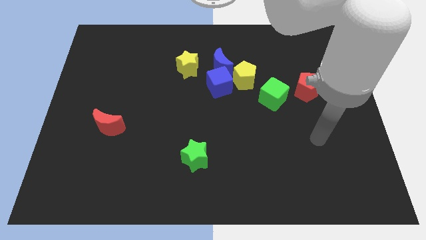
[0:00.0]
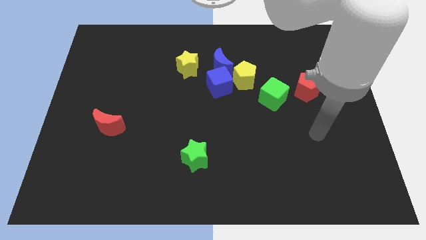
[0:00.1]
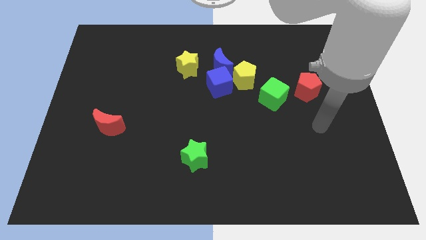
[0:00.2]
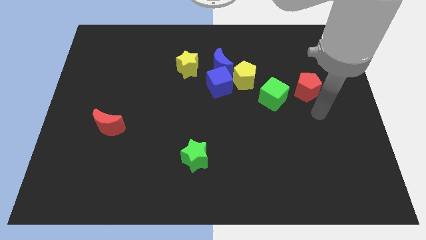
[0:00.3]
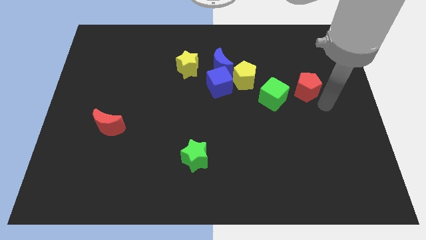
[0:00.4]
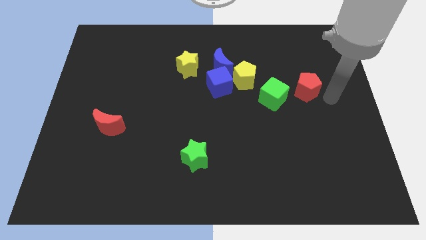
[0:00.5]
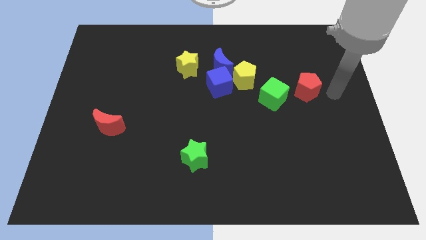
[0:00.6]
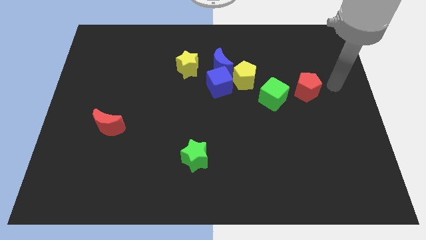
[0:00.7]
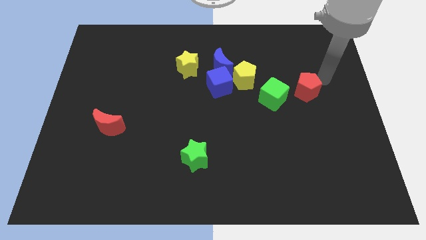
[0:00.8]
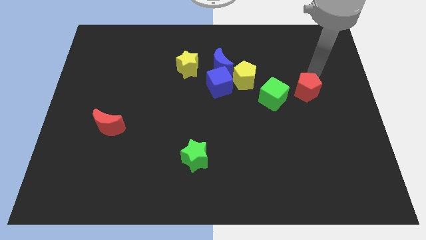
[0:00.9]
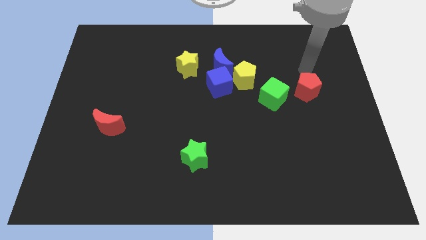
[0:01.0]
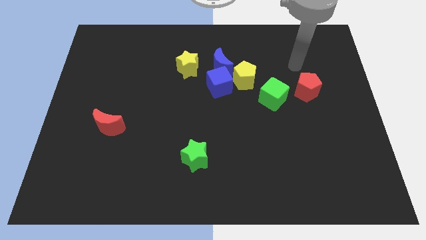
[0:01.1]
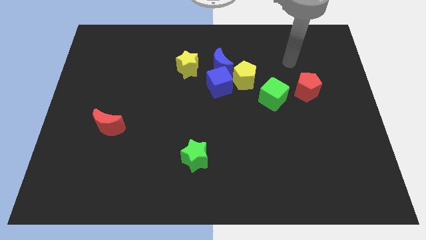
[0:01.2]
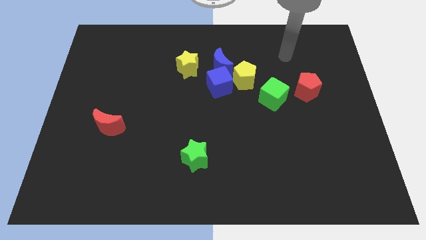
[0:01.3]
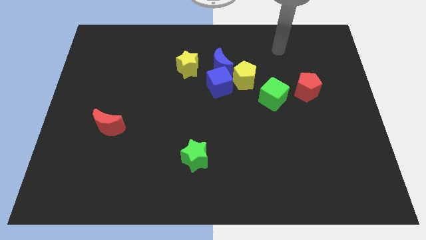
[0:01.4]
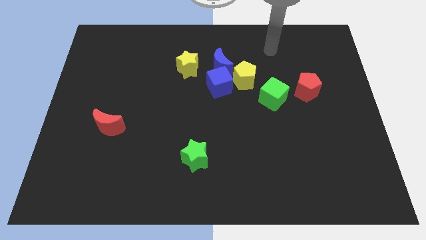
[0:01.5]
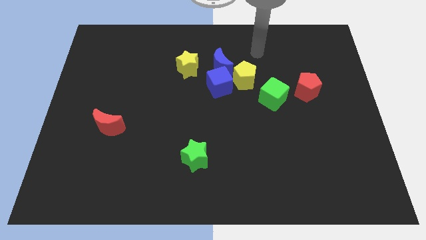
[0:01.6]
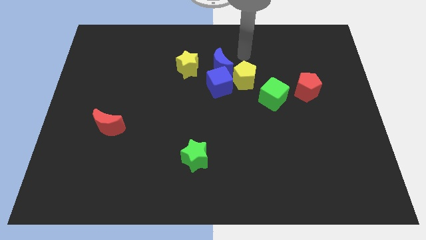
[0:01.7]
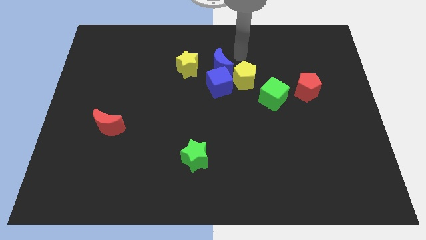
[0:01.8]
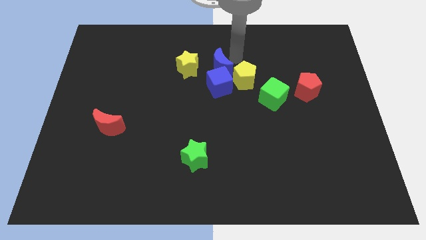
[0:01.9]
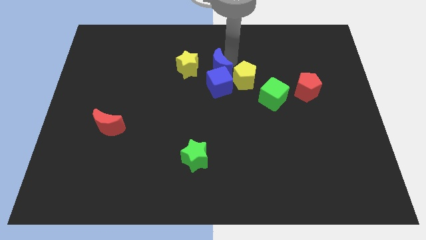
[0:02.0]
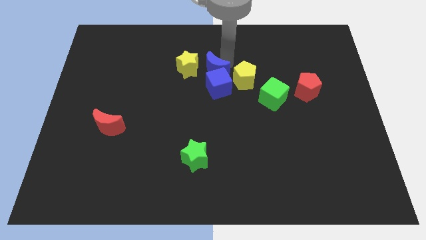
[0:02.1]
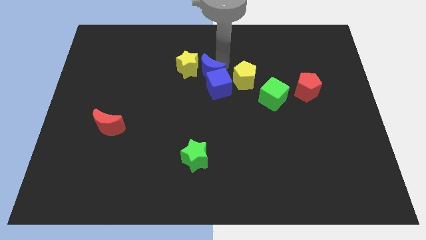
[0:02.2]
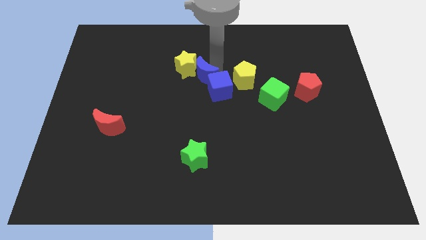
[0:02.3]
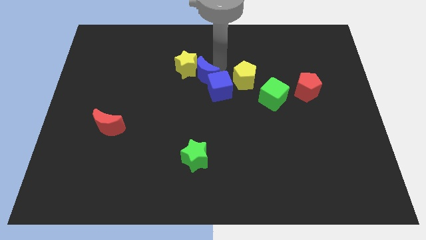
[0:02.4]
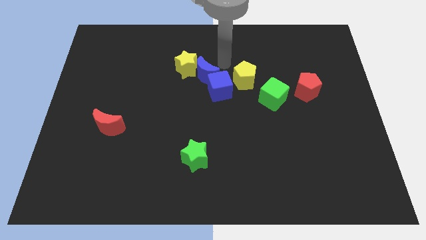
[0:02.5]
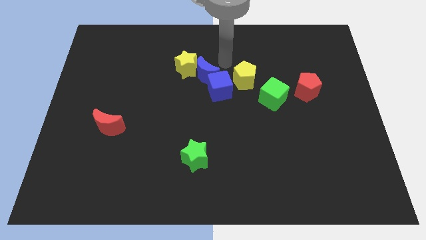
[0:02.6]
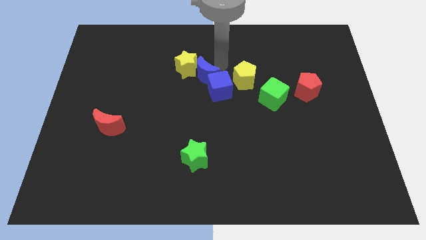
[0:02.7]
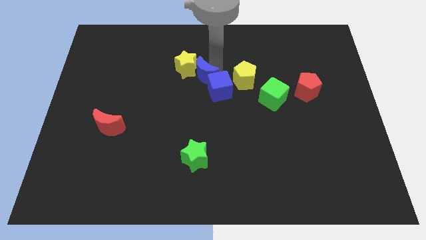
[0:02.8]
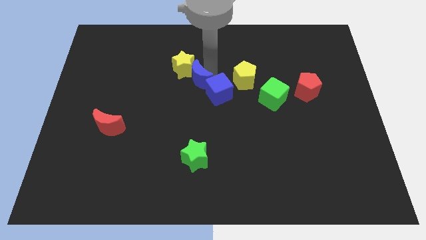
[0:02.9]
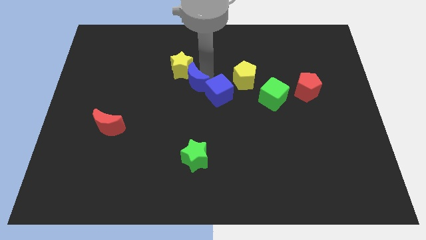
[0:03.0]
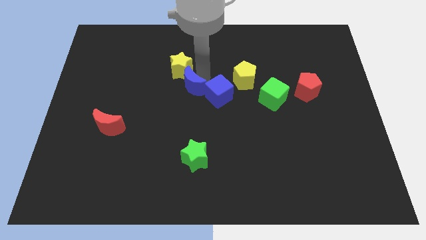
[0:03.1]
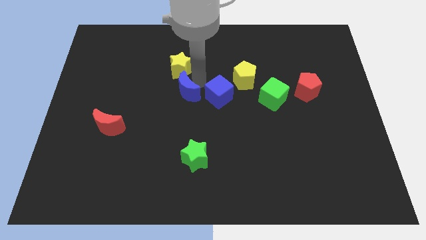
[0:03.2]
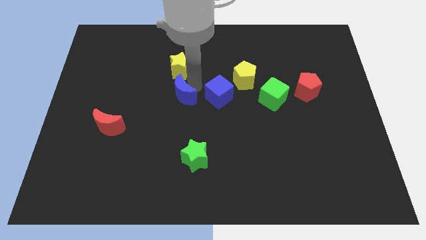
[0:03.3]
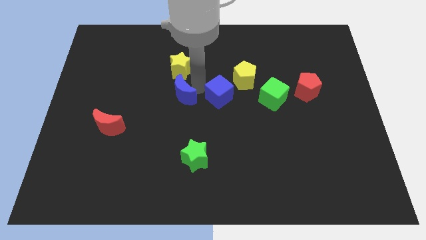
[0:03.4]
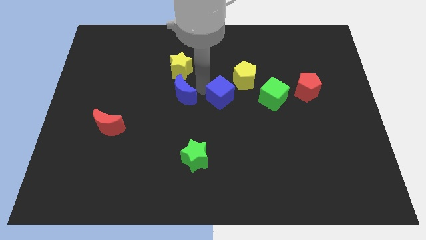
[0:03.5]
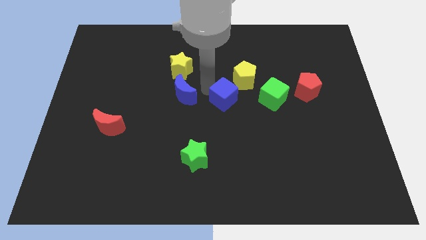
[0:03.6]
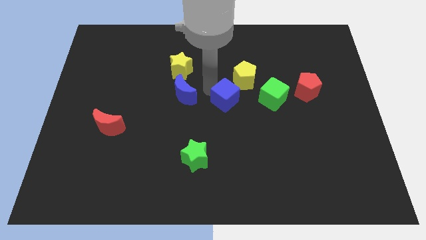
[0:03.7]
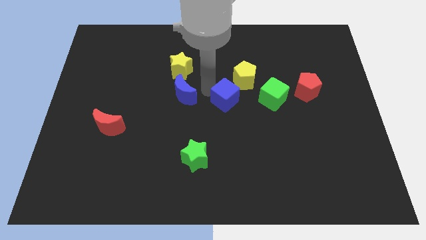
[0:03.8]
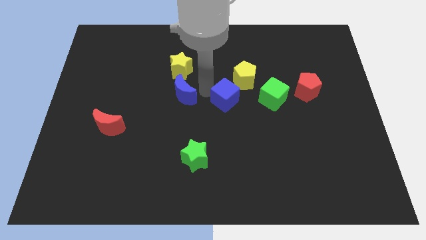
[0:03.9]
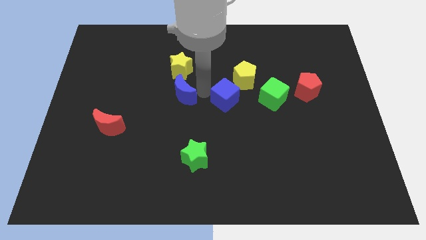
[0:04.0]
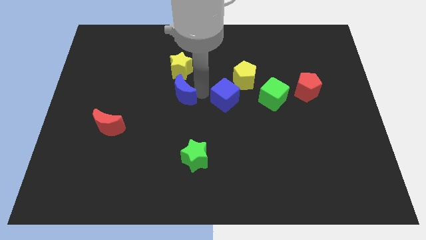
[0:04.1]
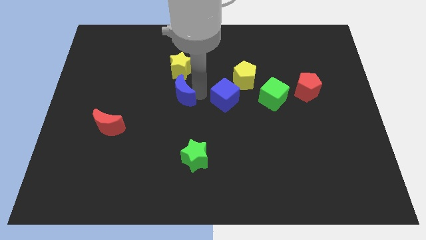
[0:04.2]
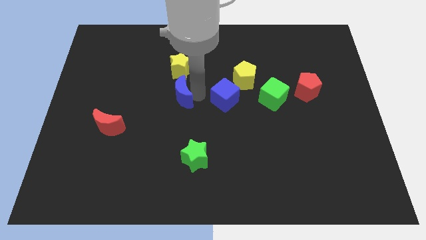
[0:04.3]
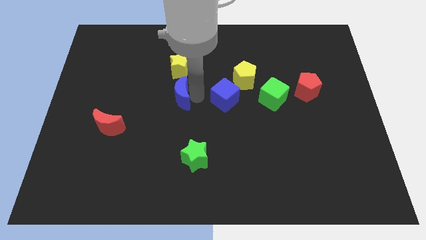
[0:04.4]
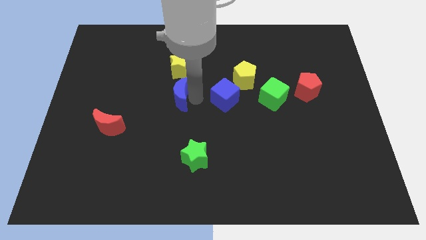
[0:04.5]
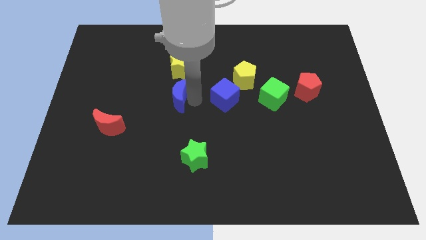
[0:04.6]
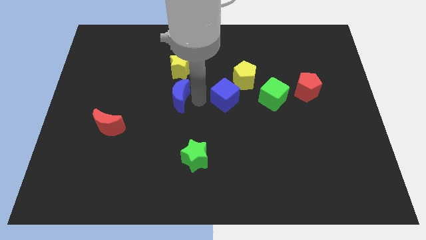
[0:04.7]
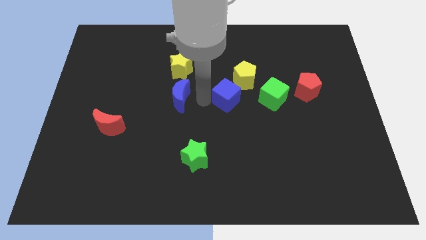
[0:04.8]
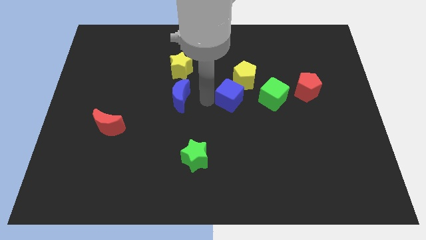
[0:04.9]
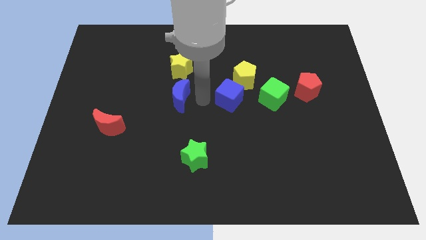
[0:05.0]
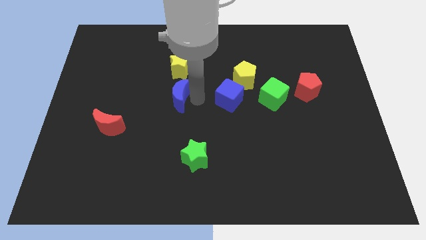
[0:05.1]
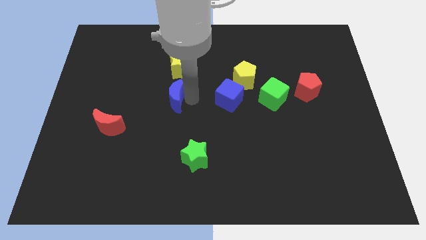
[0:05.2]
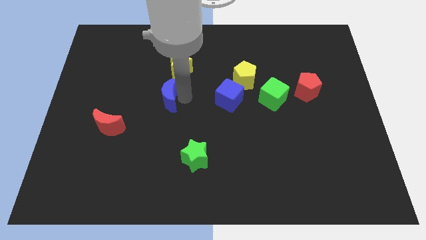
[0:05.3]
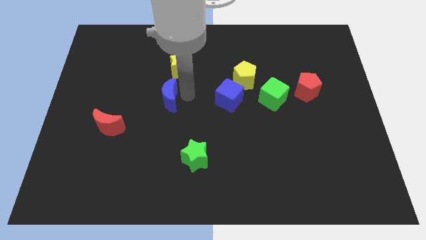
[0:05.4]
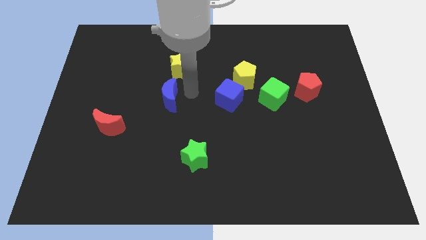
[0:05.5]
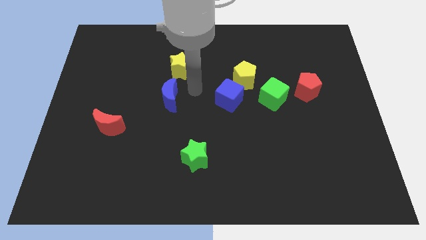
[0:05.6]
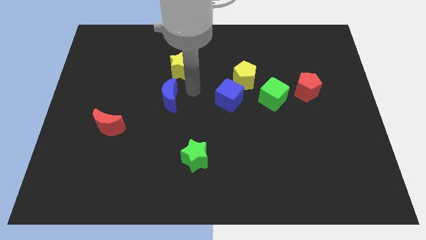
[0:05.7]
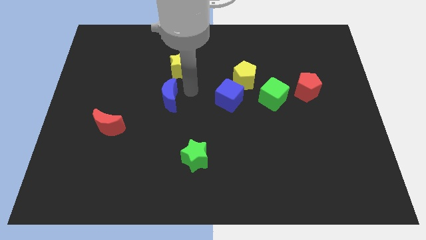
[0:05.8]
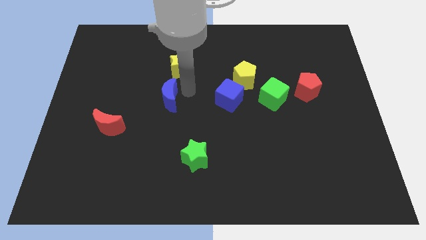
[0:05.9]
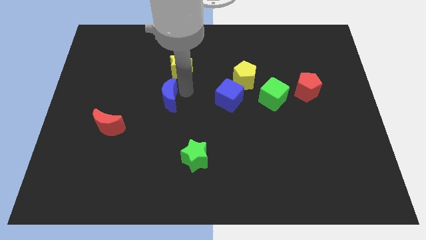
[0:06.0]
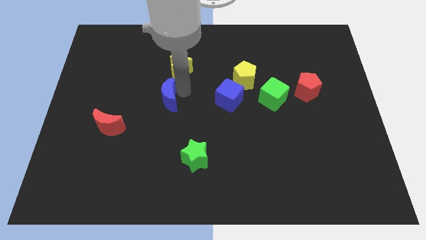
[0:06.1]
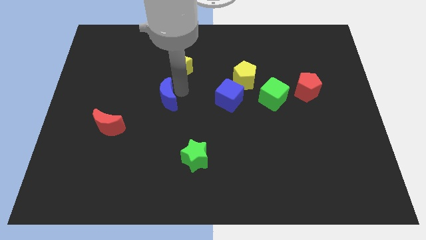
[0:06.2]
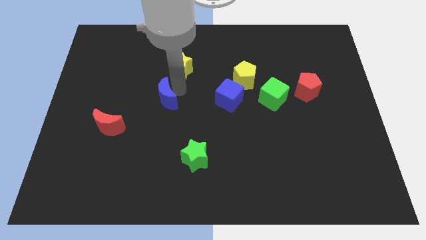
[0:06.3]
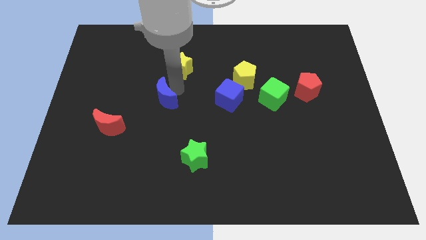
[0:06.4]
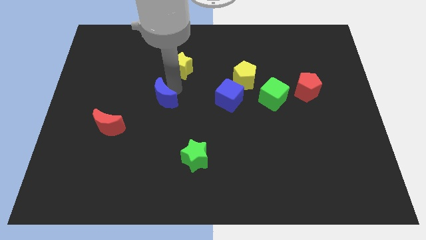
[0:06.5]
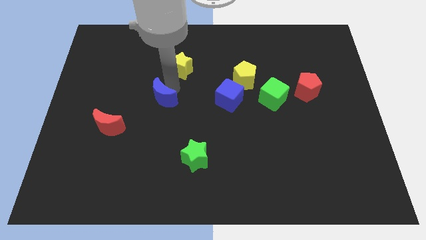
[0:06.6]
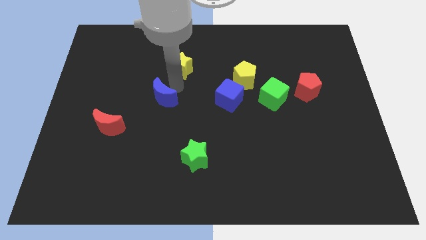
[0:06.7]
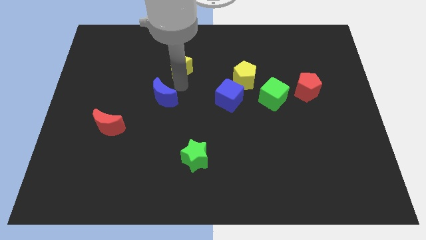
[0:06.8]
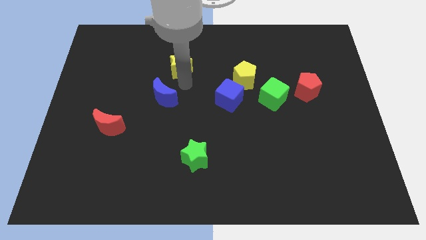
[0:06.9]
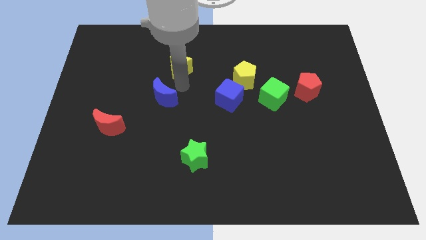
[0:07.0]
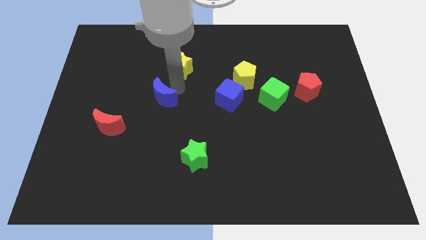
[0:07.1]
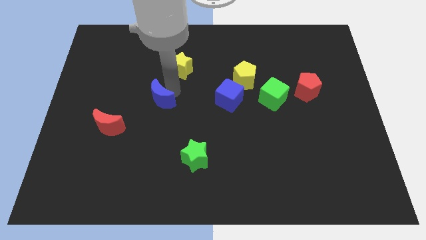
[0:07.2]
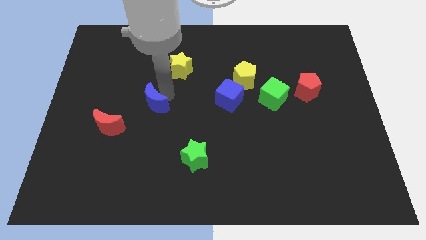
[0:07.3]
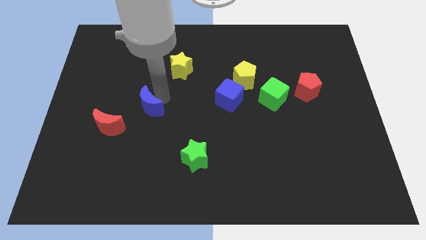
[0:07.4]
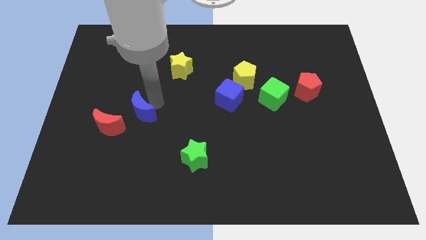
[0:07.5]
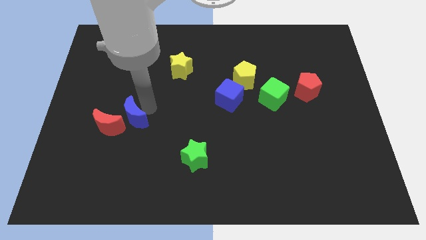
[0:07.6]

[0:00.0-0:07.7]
slide the blue moon close to the red moon
